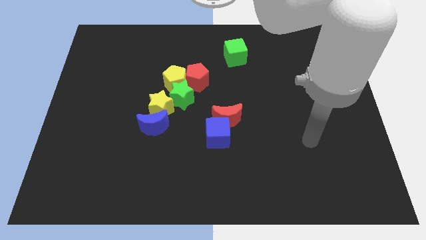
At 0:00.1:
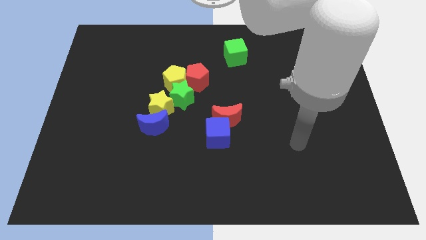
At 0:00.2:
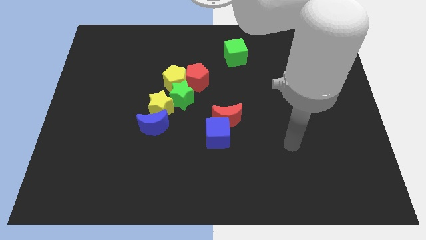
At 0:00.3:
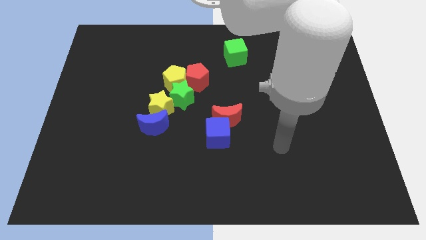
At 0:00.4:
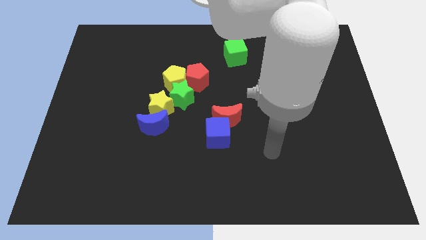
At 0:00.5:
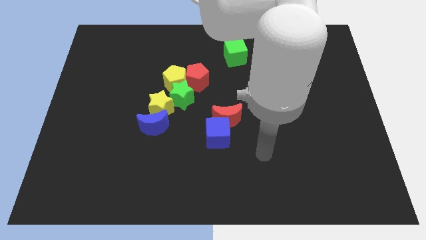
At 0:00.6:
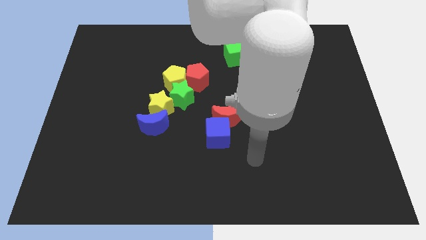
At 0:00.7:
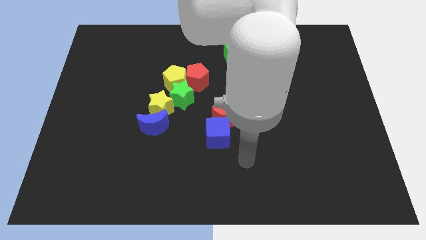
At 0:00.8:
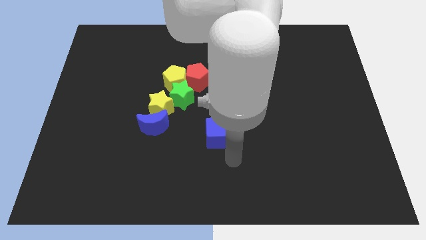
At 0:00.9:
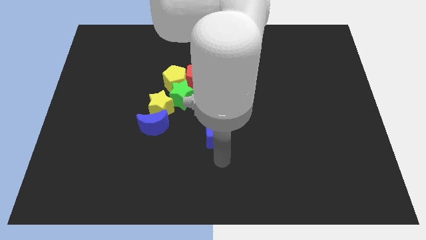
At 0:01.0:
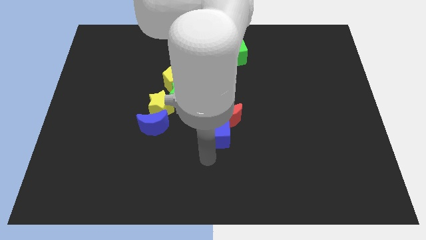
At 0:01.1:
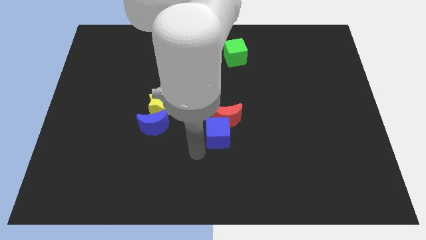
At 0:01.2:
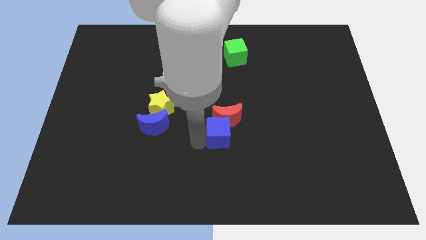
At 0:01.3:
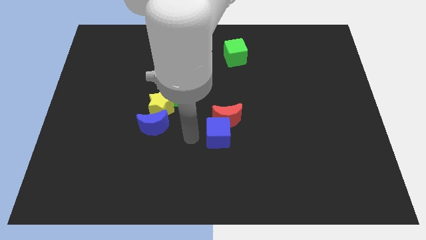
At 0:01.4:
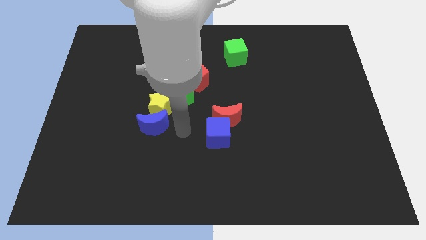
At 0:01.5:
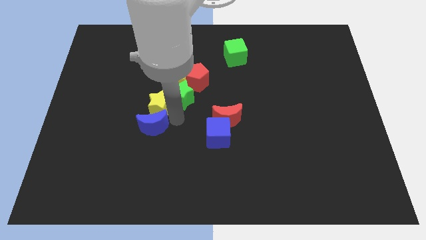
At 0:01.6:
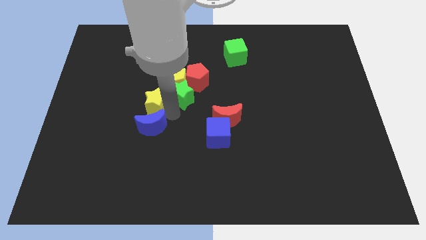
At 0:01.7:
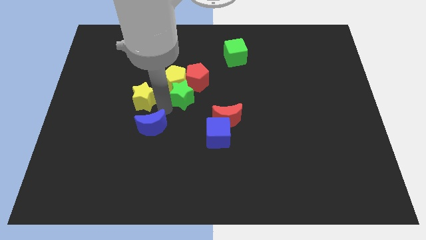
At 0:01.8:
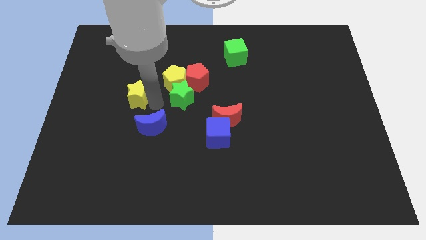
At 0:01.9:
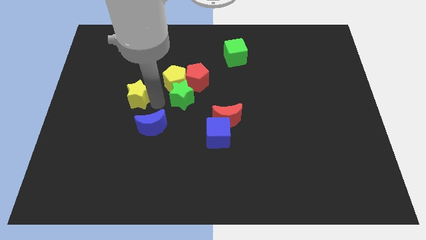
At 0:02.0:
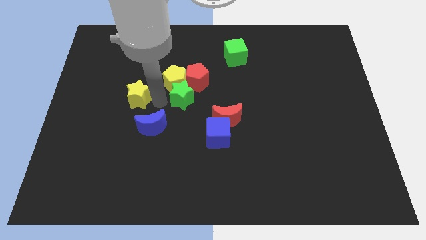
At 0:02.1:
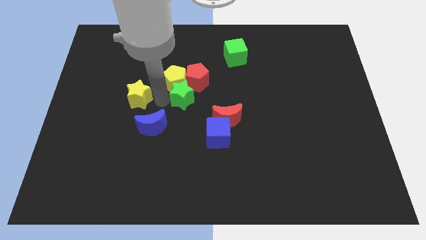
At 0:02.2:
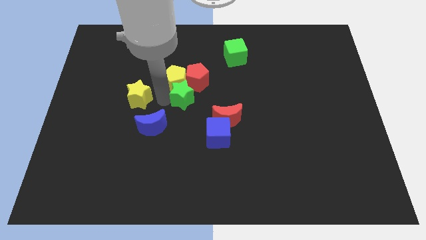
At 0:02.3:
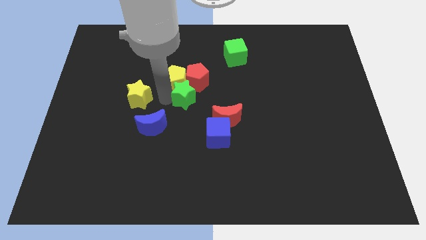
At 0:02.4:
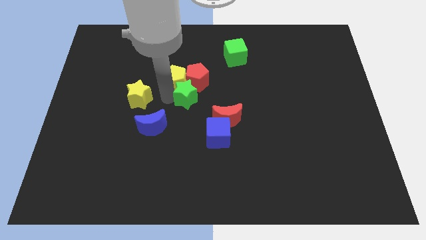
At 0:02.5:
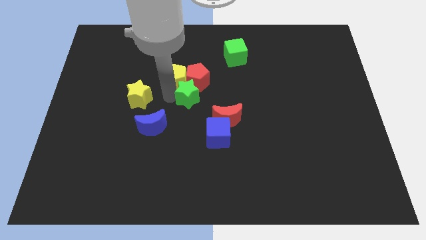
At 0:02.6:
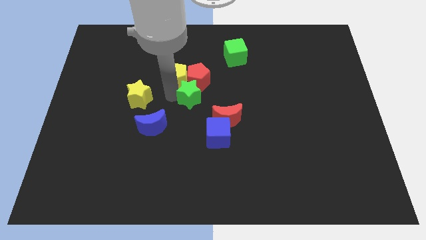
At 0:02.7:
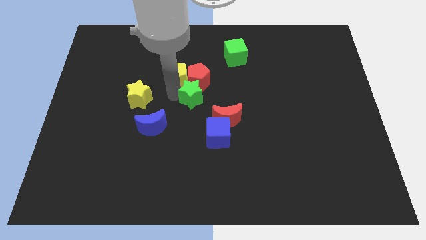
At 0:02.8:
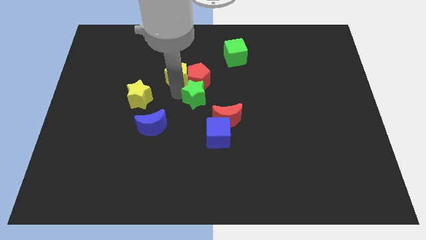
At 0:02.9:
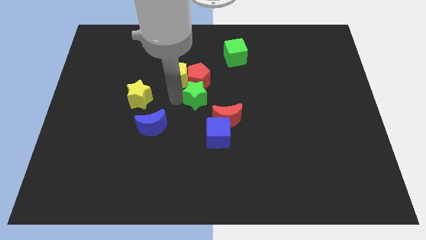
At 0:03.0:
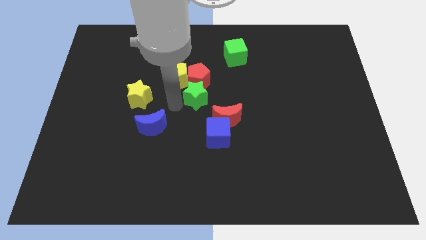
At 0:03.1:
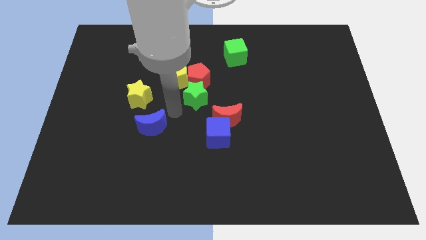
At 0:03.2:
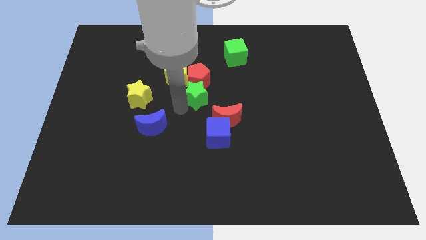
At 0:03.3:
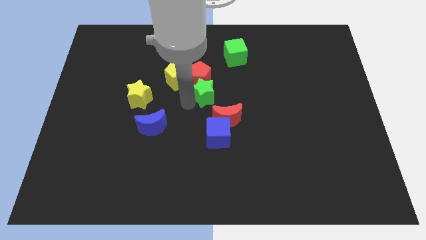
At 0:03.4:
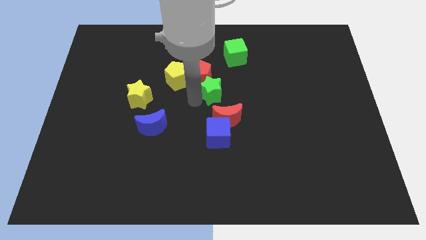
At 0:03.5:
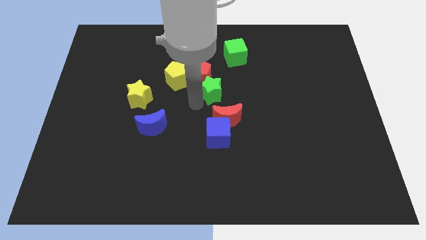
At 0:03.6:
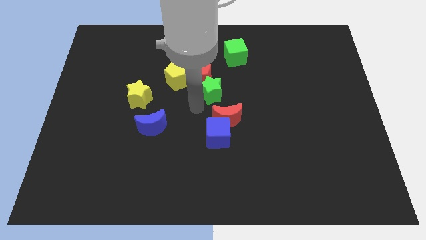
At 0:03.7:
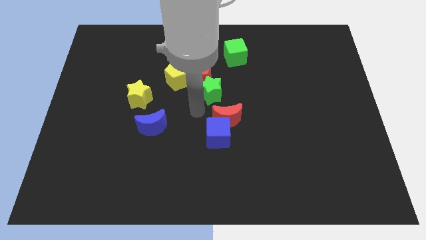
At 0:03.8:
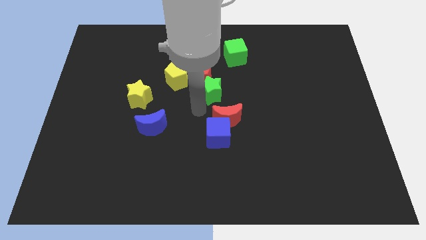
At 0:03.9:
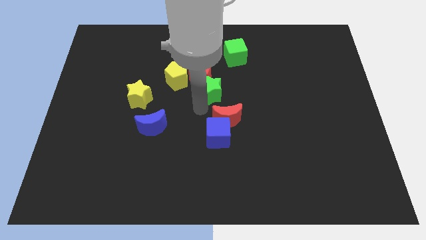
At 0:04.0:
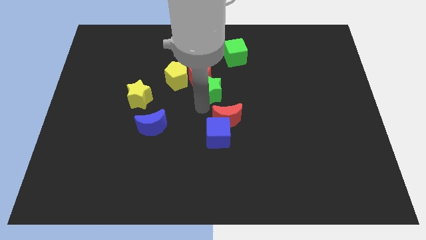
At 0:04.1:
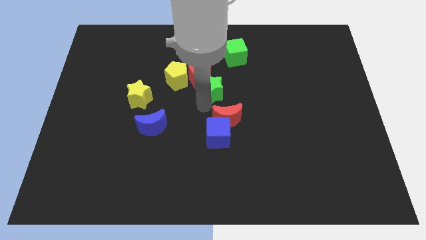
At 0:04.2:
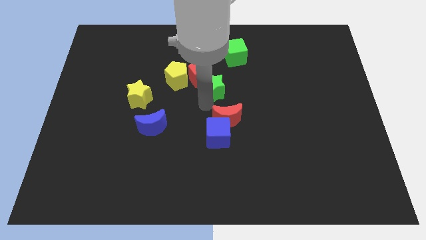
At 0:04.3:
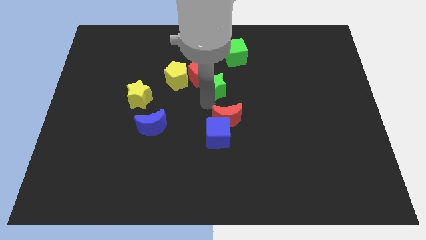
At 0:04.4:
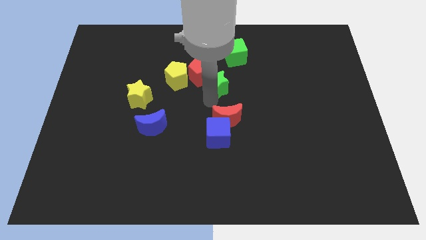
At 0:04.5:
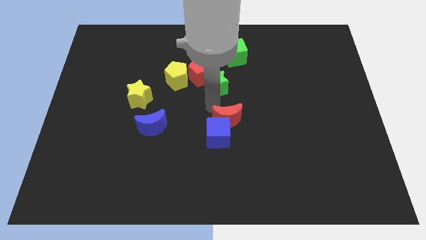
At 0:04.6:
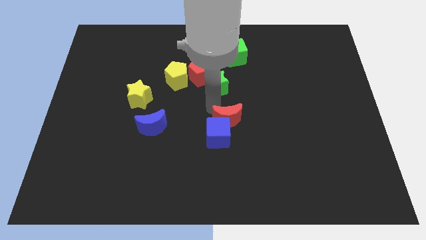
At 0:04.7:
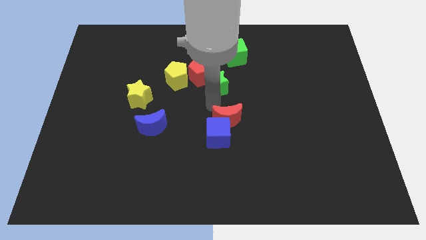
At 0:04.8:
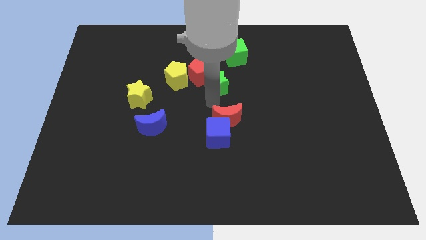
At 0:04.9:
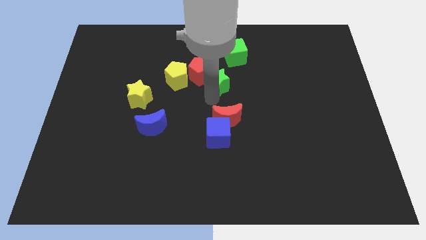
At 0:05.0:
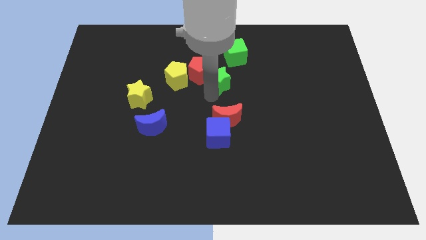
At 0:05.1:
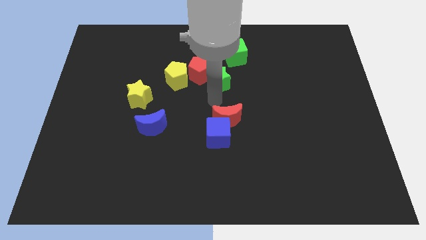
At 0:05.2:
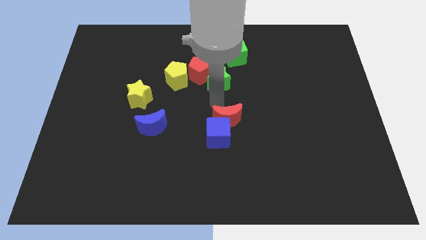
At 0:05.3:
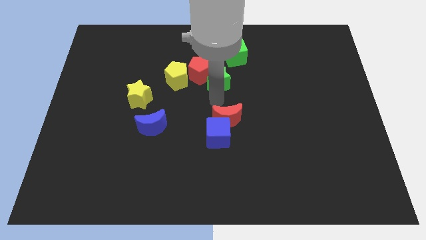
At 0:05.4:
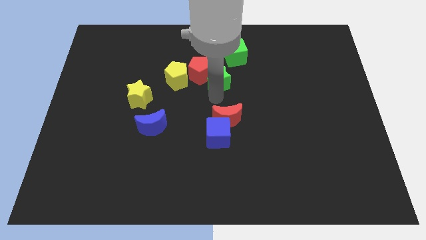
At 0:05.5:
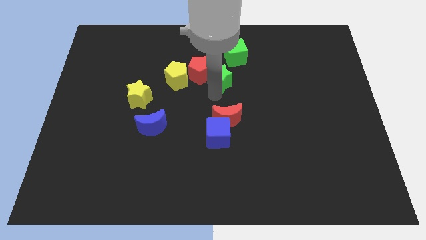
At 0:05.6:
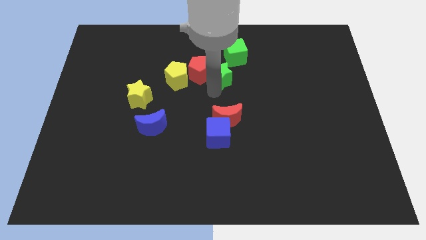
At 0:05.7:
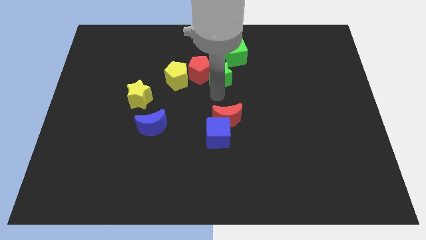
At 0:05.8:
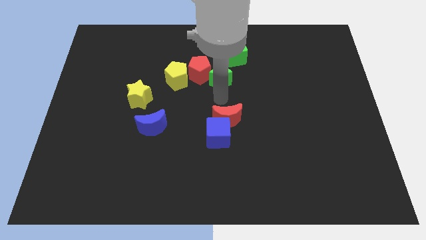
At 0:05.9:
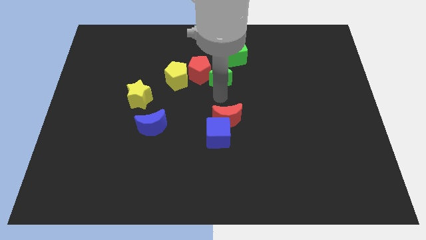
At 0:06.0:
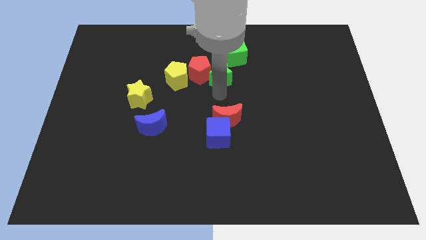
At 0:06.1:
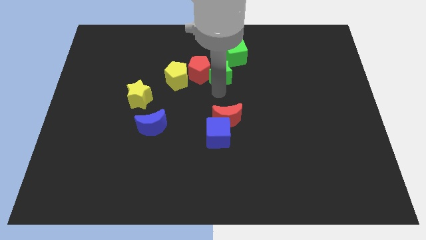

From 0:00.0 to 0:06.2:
put the green star to the top right of the red pentagon
